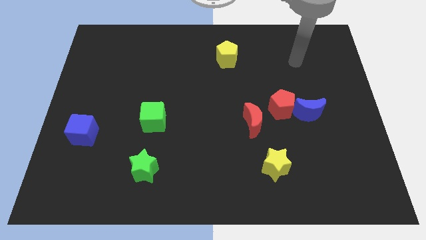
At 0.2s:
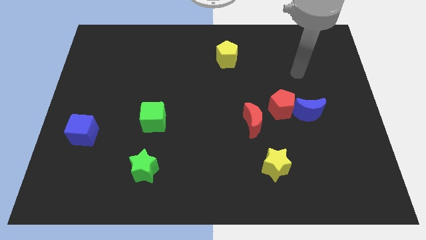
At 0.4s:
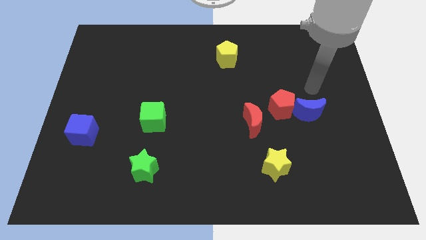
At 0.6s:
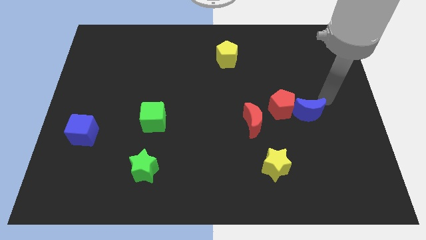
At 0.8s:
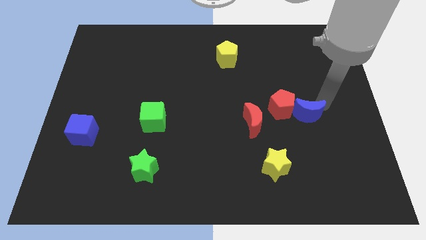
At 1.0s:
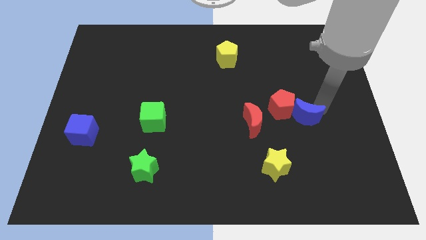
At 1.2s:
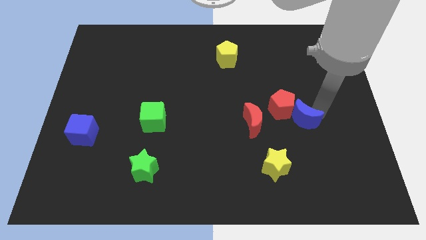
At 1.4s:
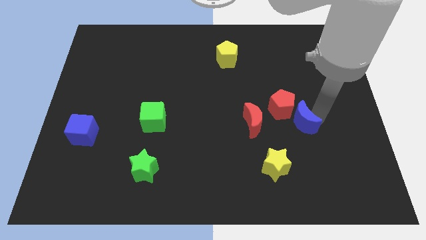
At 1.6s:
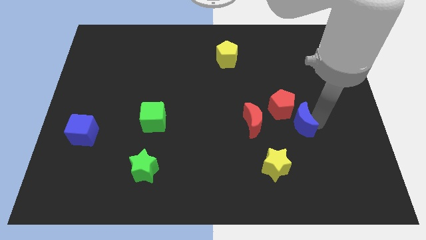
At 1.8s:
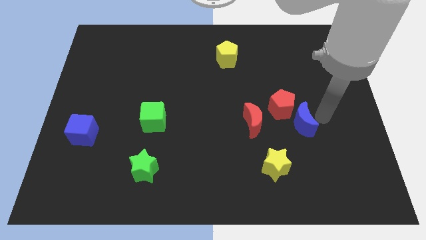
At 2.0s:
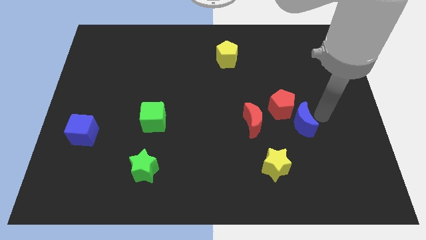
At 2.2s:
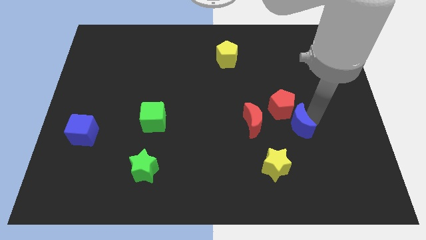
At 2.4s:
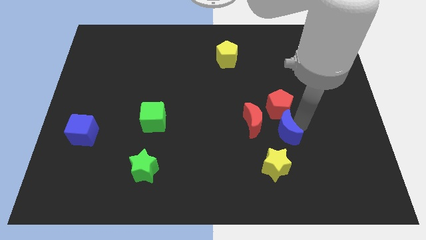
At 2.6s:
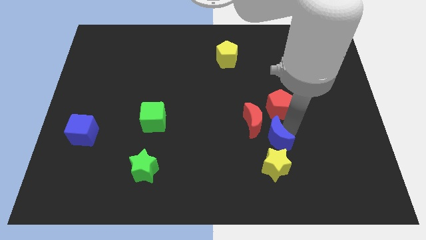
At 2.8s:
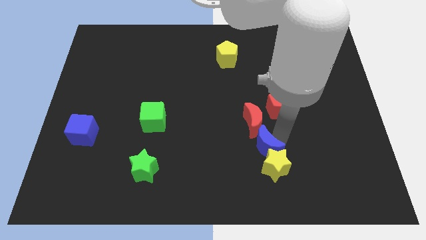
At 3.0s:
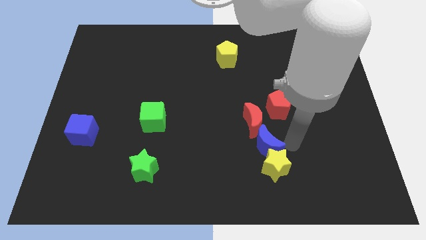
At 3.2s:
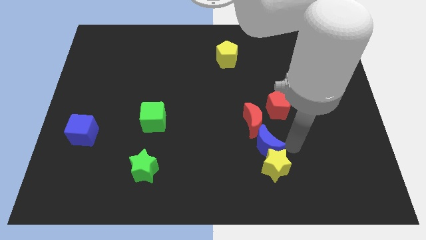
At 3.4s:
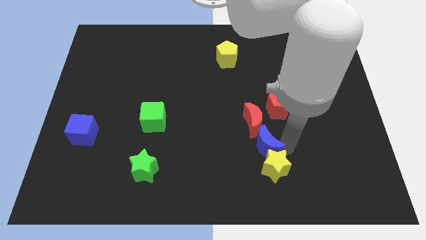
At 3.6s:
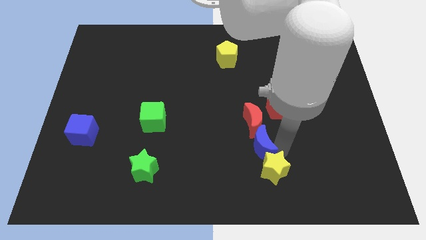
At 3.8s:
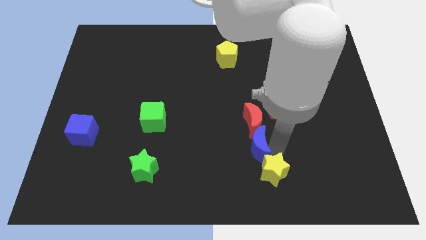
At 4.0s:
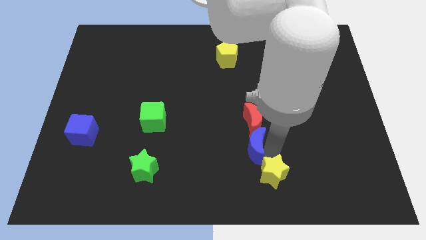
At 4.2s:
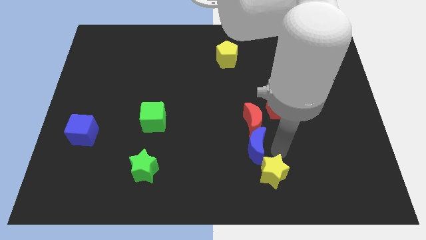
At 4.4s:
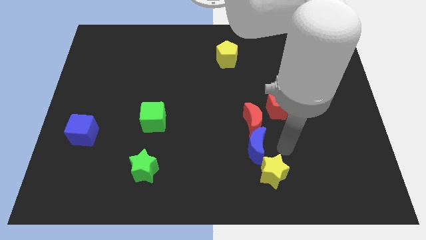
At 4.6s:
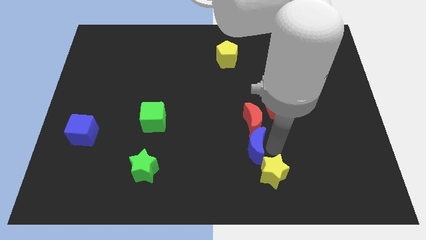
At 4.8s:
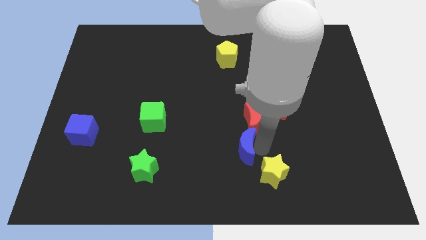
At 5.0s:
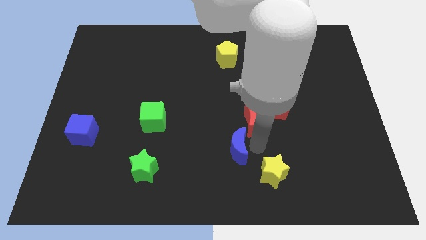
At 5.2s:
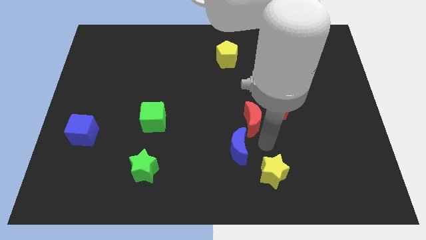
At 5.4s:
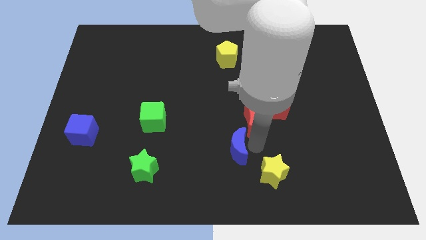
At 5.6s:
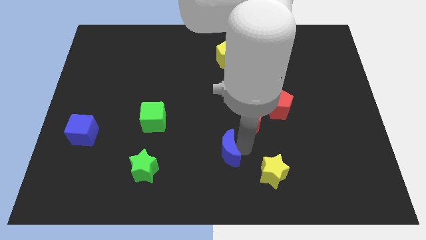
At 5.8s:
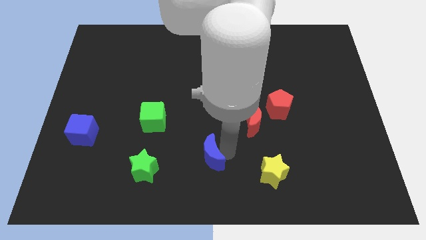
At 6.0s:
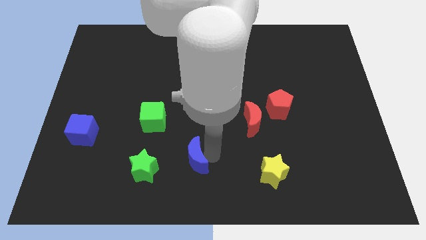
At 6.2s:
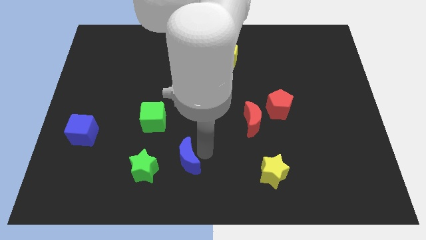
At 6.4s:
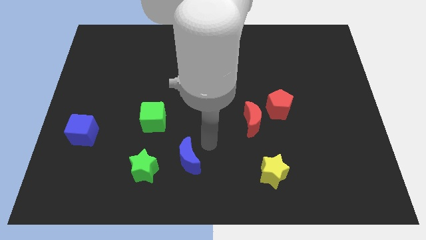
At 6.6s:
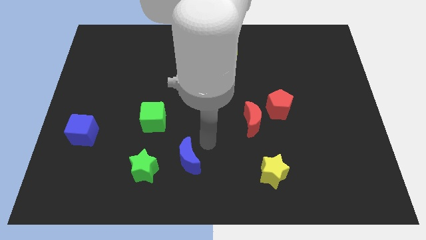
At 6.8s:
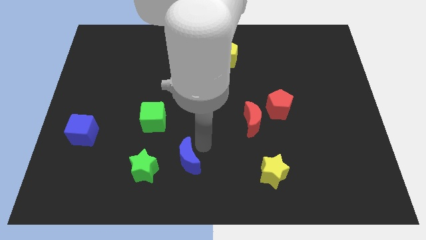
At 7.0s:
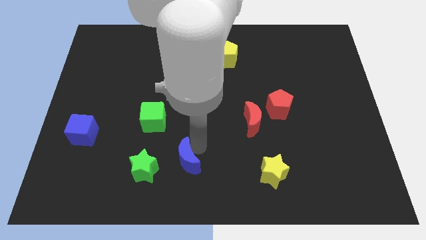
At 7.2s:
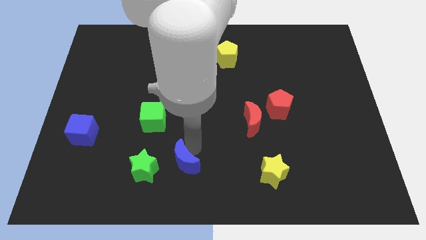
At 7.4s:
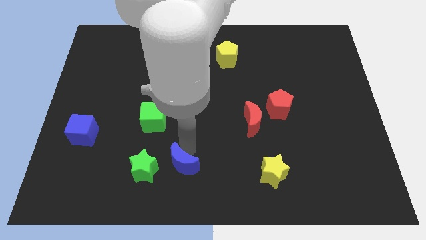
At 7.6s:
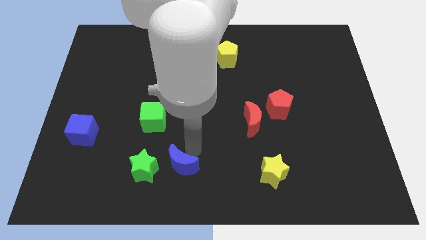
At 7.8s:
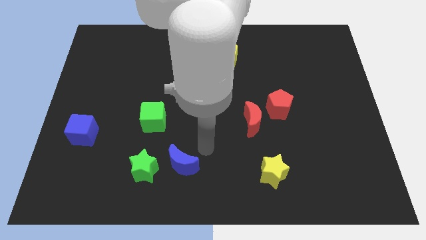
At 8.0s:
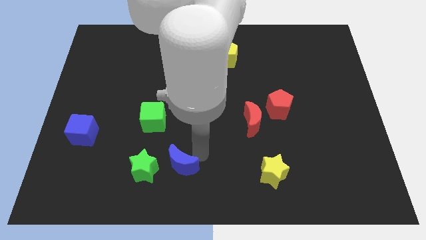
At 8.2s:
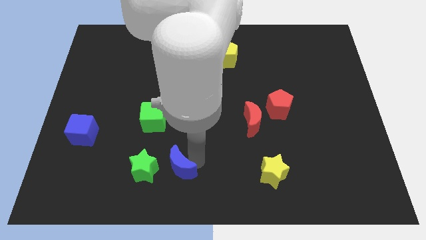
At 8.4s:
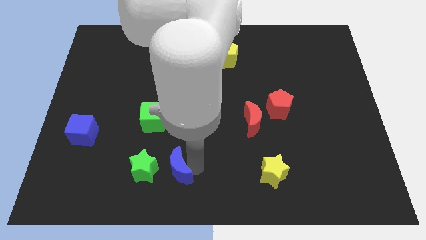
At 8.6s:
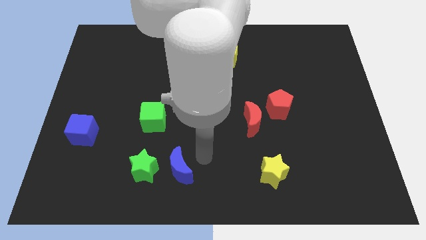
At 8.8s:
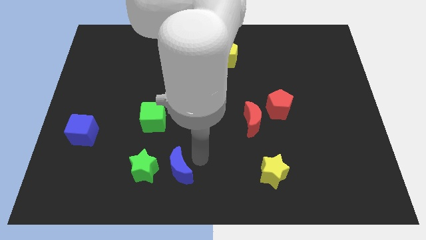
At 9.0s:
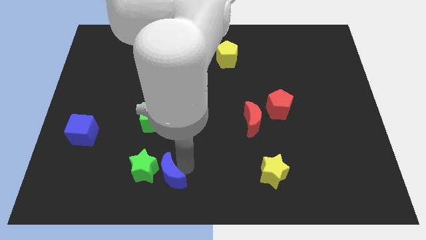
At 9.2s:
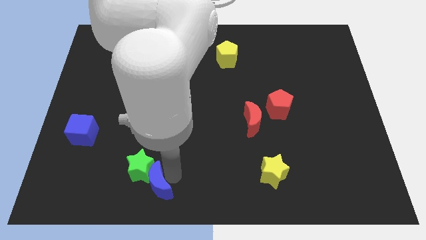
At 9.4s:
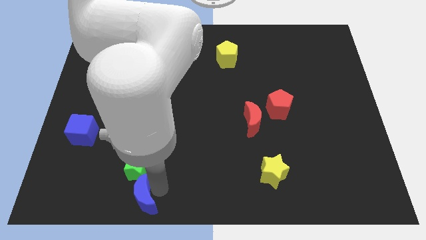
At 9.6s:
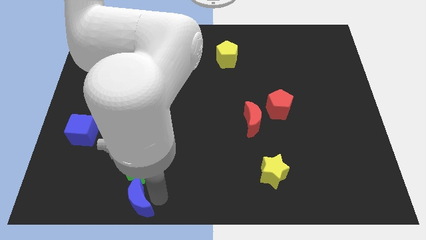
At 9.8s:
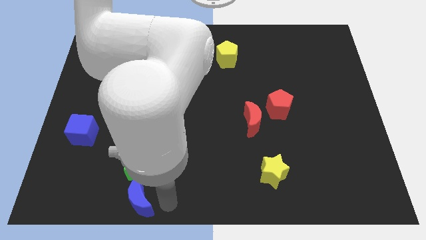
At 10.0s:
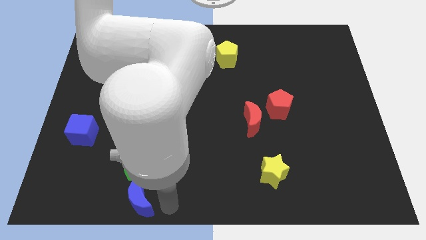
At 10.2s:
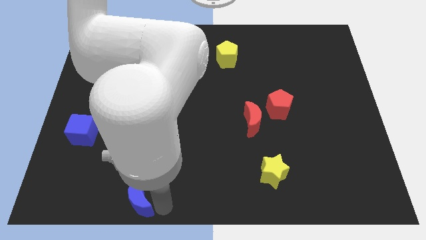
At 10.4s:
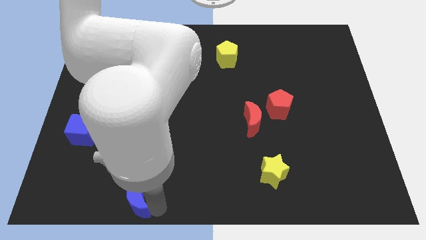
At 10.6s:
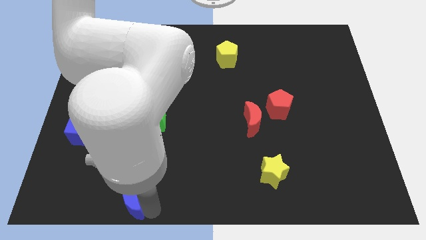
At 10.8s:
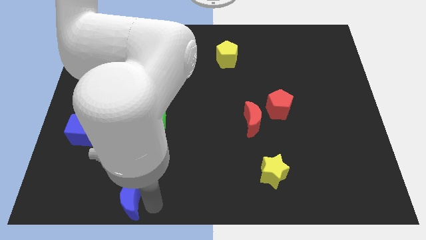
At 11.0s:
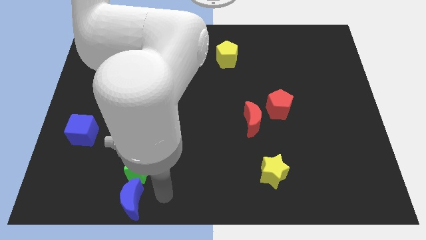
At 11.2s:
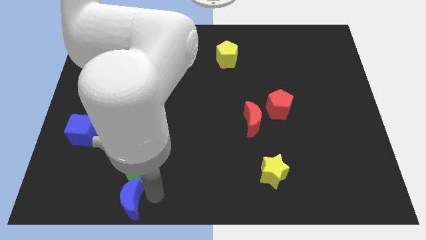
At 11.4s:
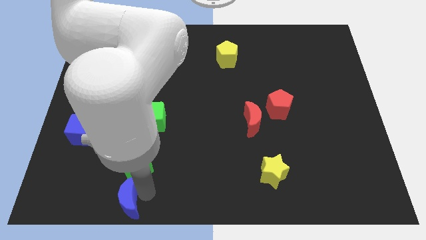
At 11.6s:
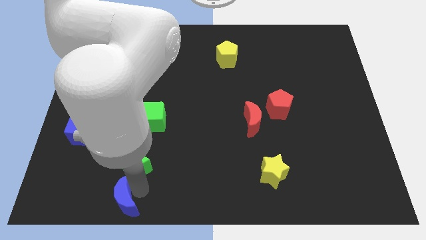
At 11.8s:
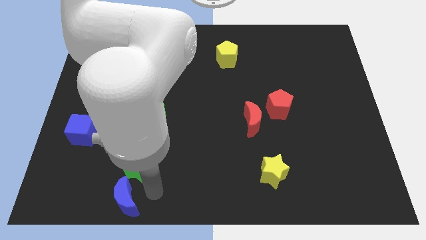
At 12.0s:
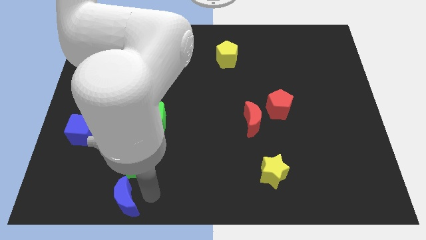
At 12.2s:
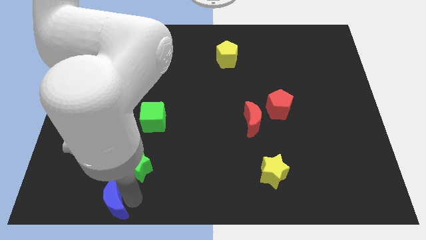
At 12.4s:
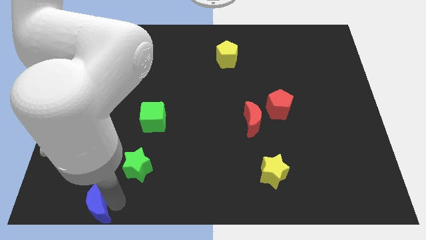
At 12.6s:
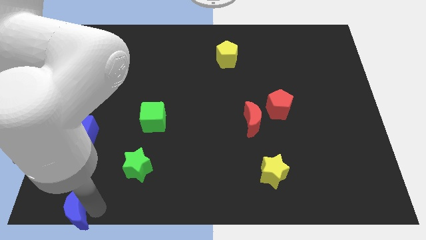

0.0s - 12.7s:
slide the blue moon to the bottom left of the board
